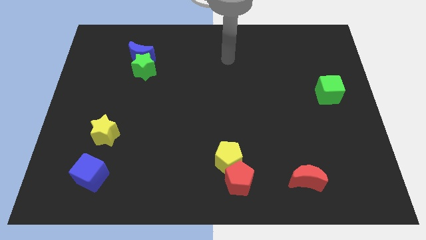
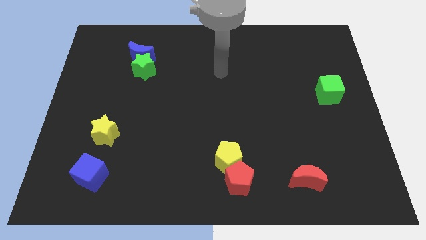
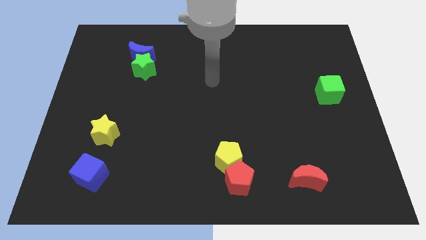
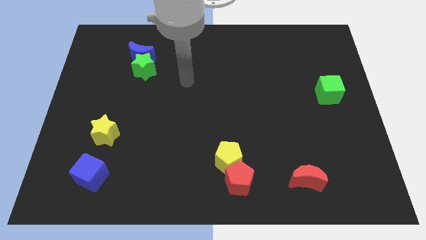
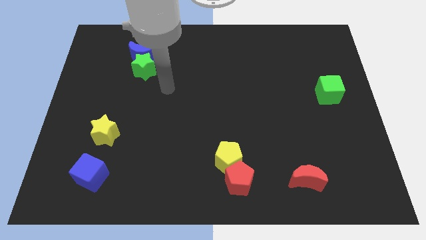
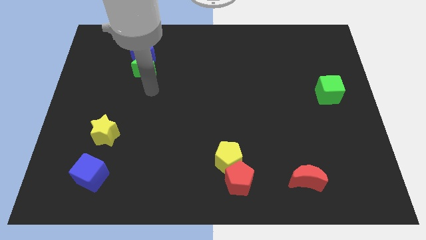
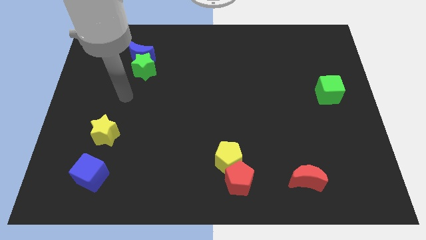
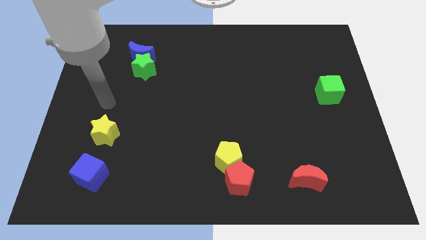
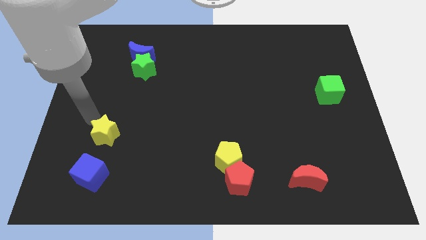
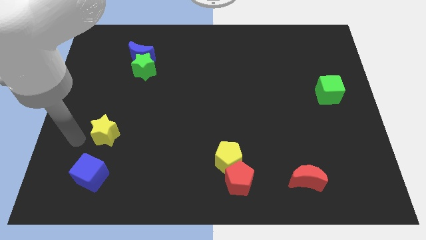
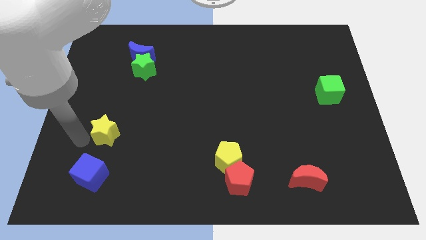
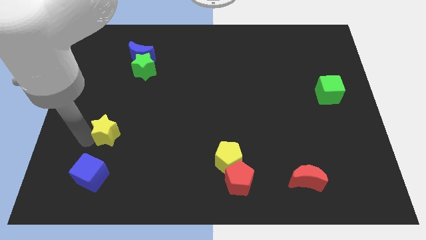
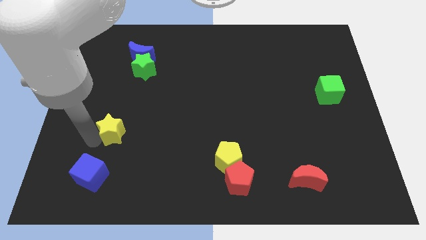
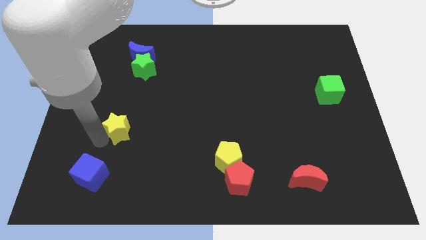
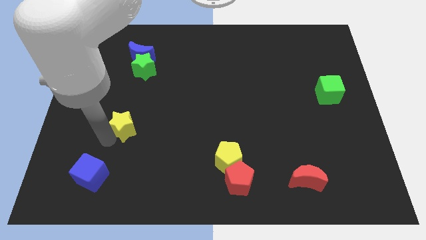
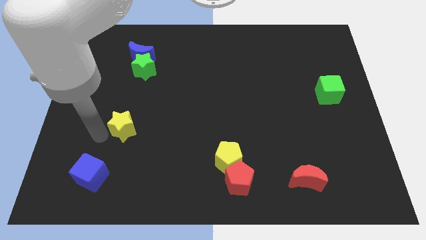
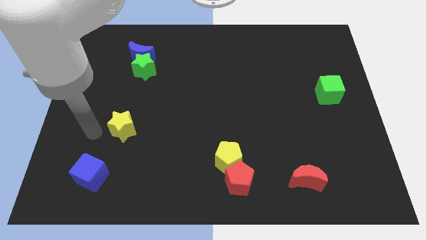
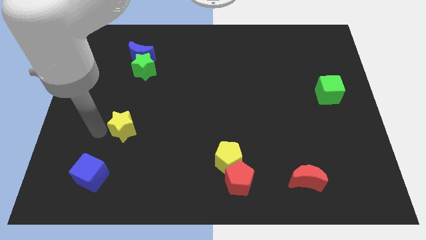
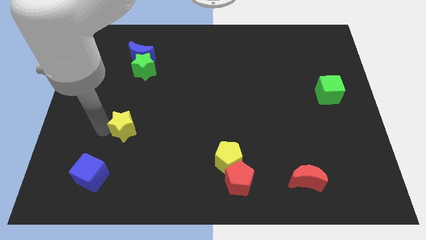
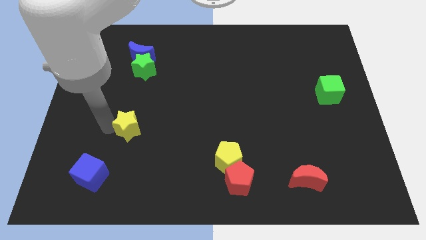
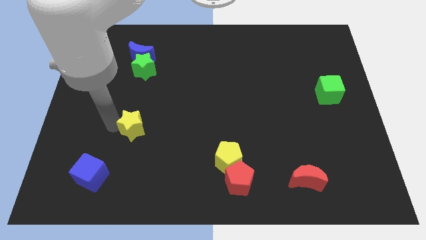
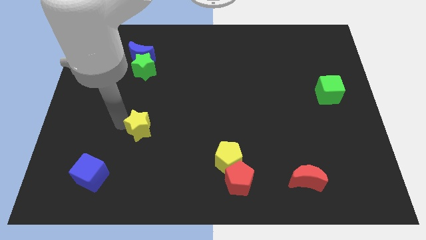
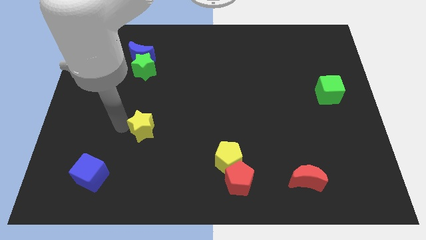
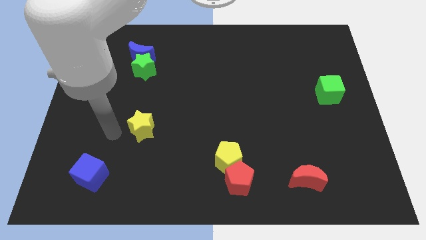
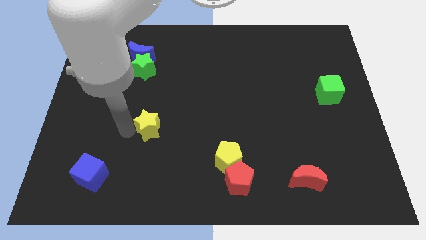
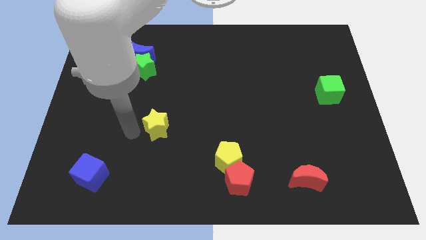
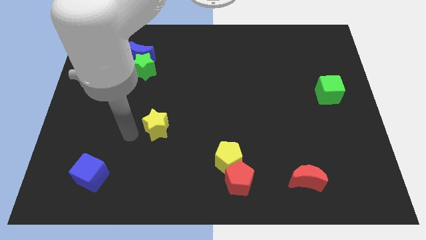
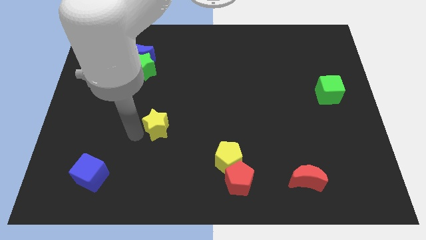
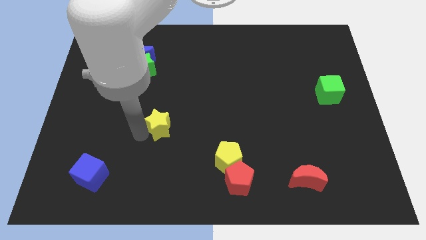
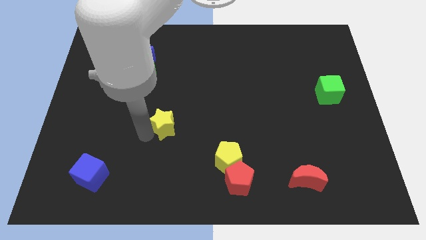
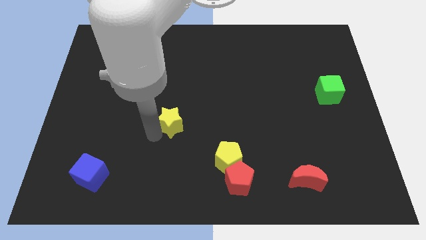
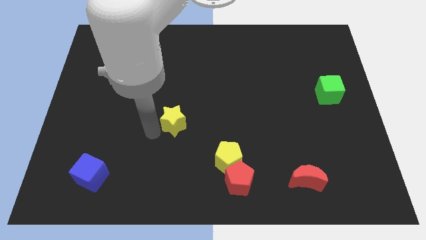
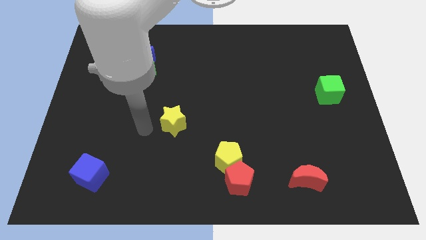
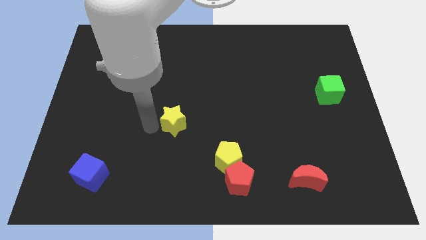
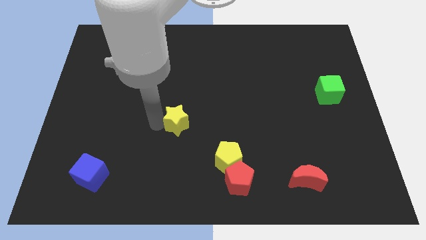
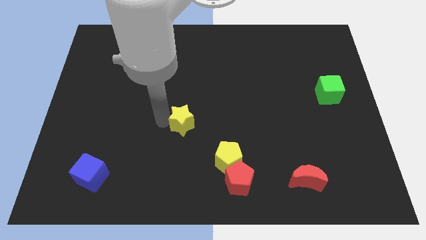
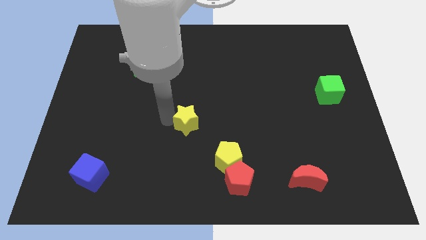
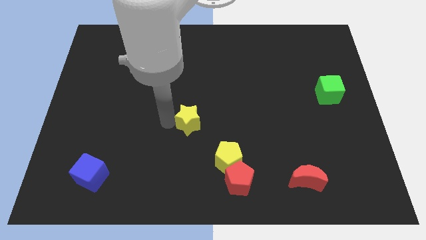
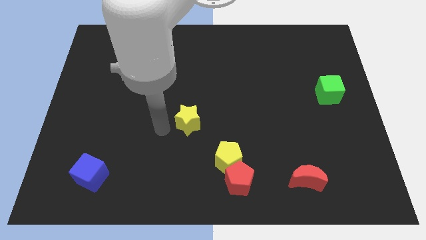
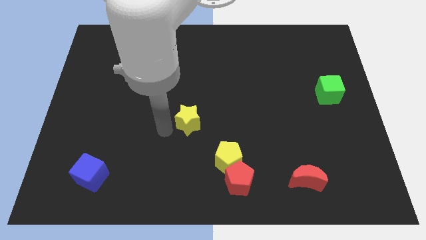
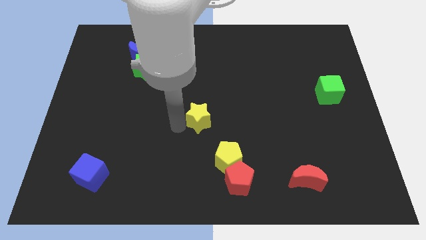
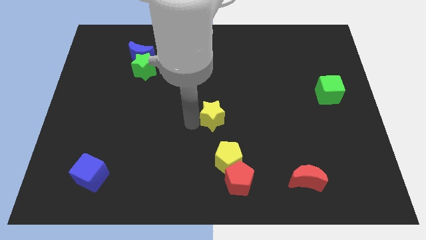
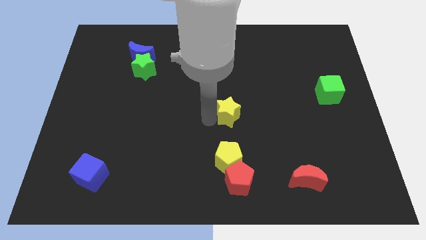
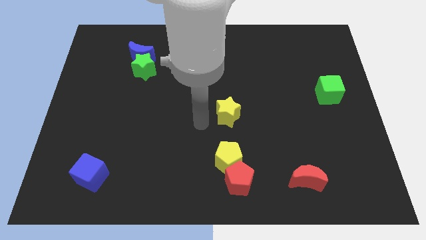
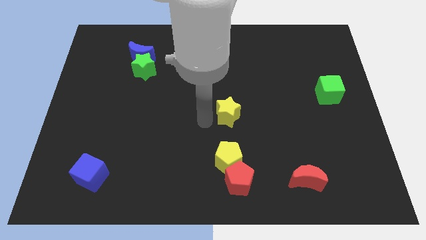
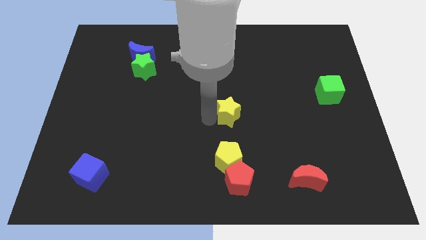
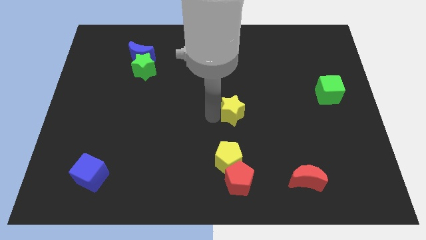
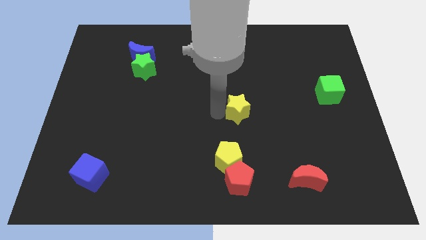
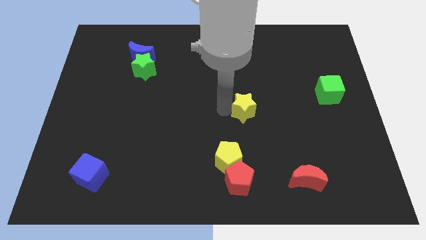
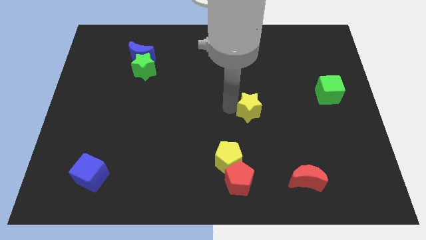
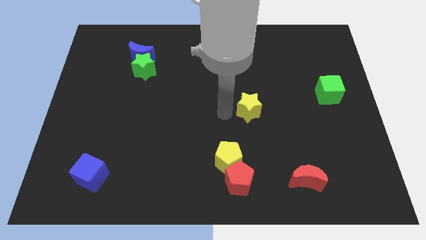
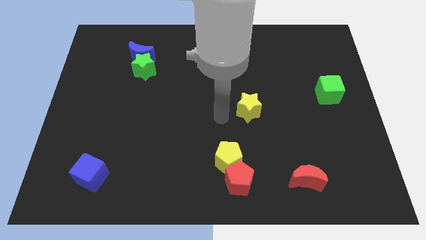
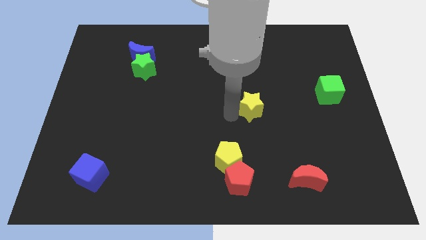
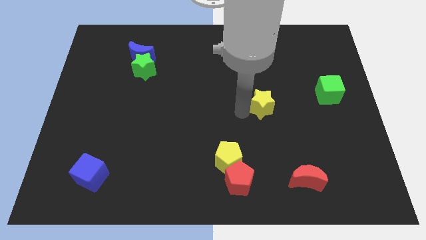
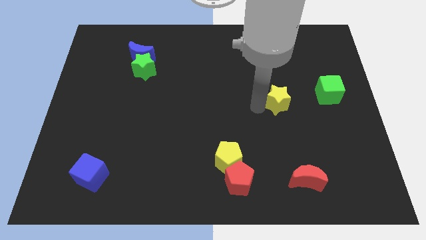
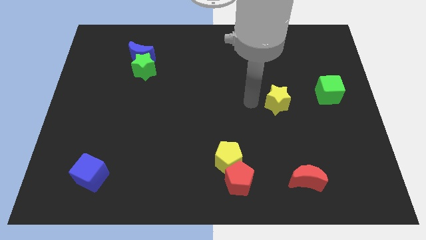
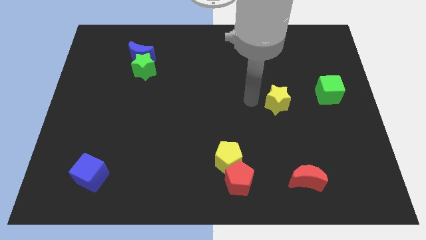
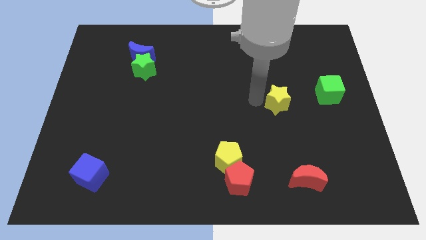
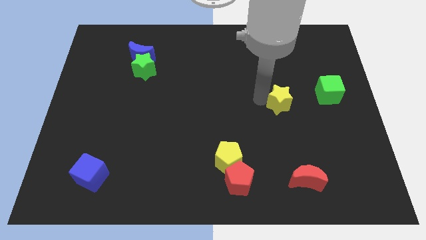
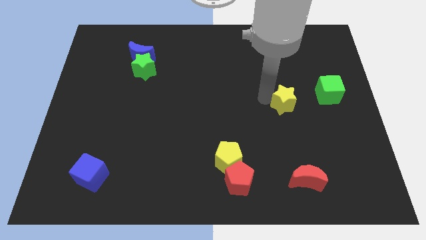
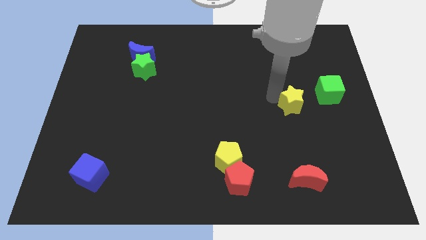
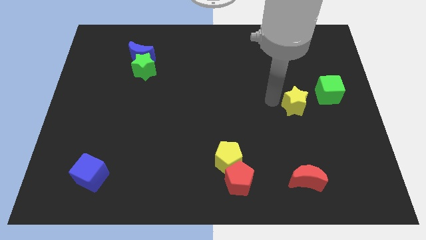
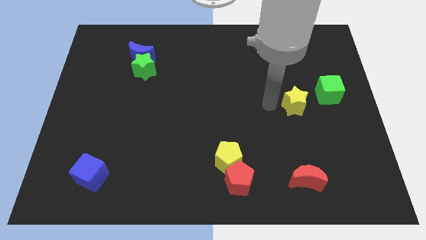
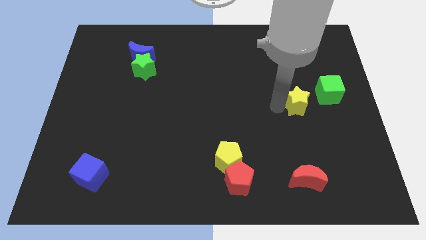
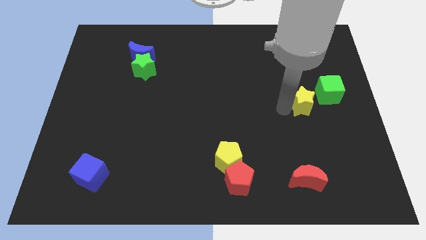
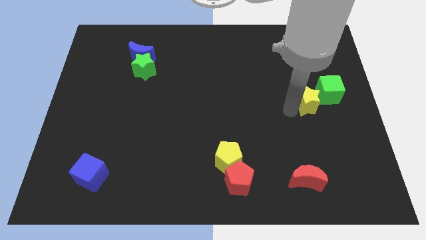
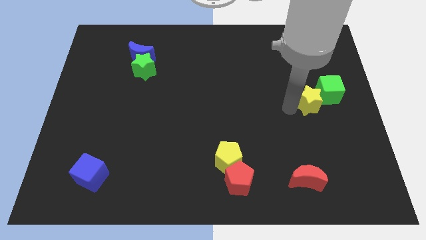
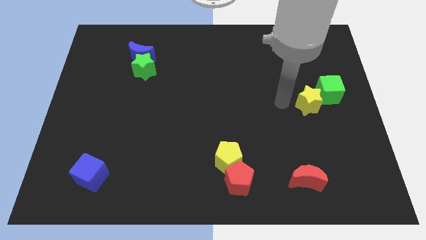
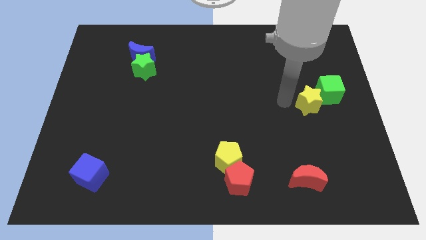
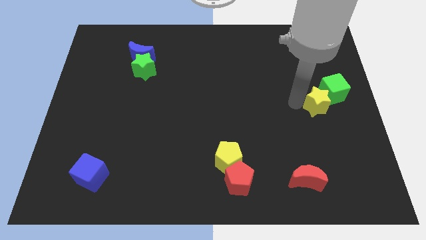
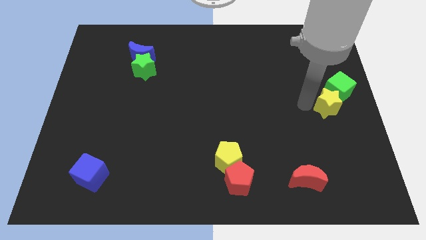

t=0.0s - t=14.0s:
push the yellow star to the right side

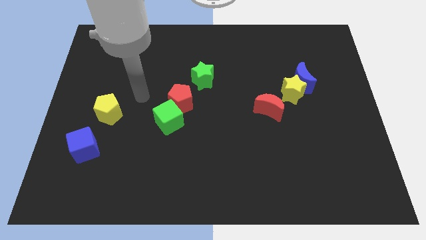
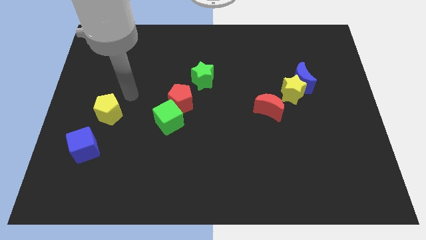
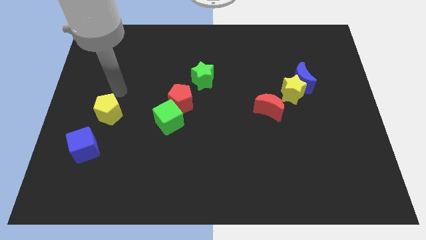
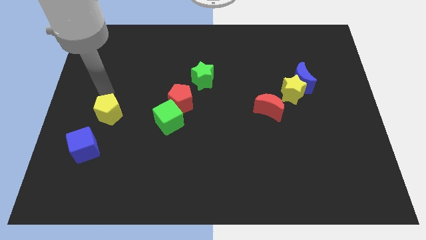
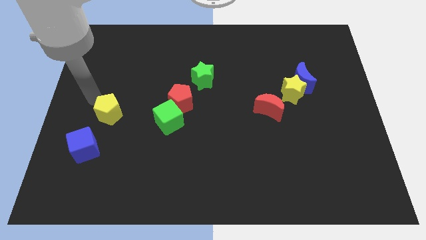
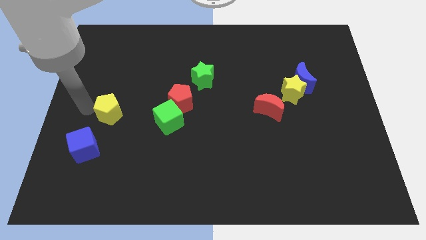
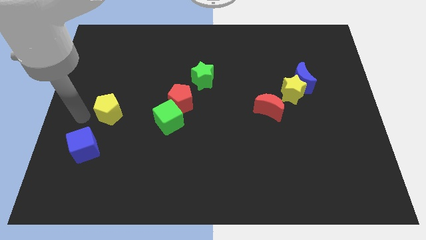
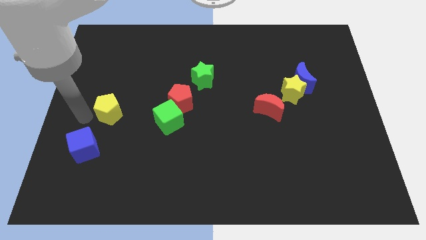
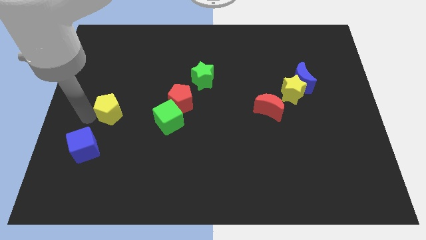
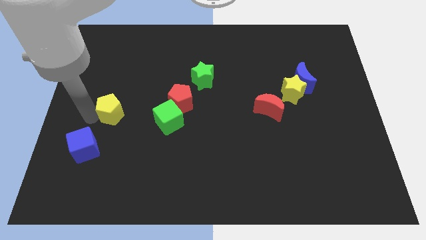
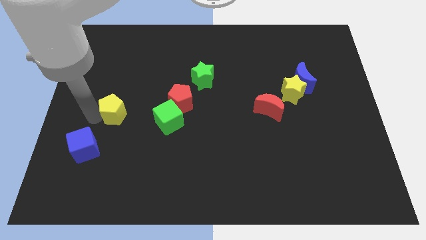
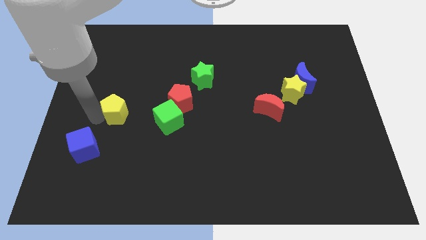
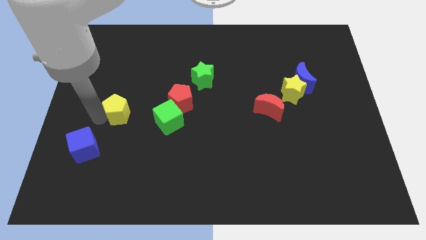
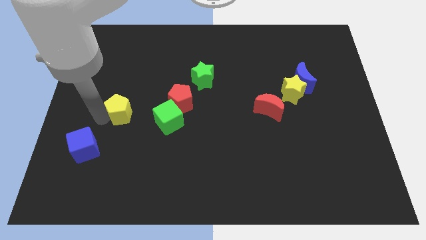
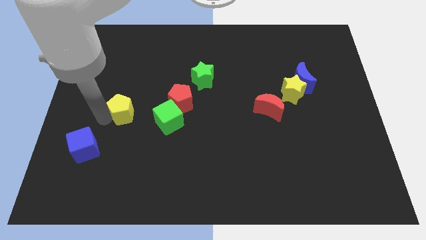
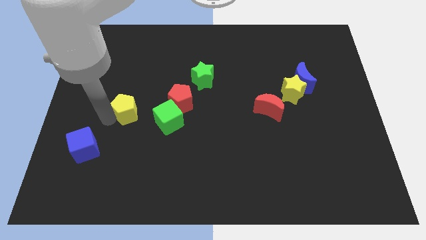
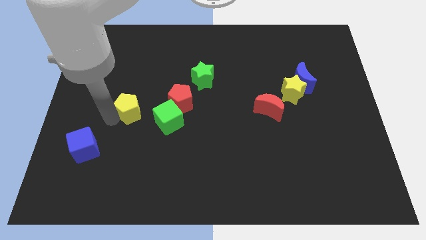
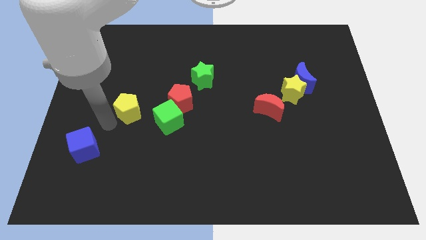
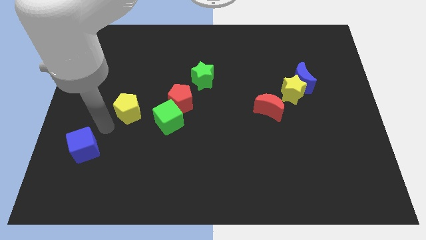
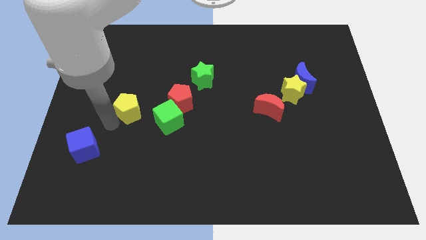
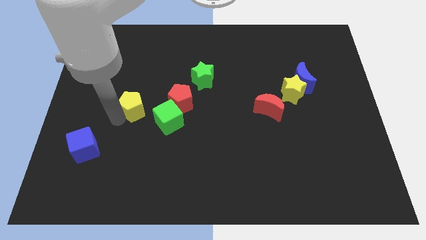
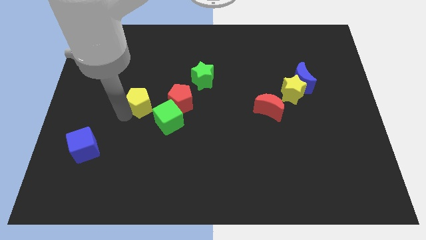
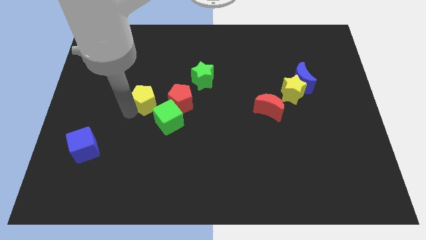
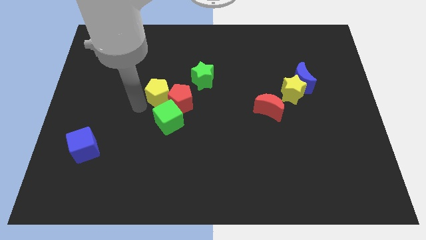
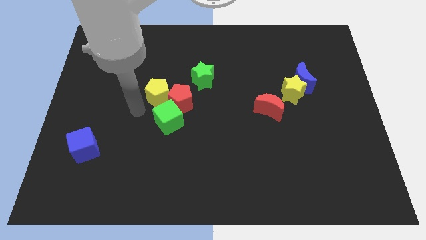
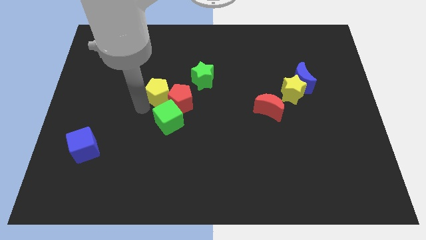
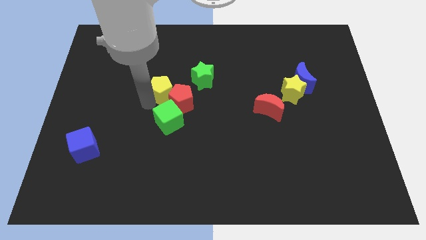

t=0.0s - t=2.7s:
slide the yellow pentagon to the middle
